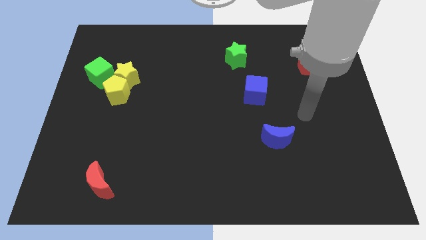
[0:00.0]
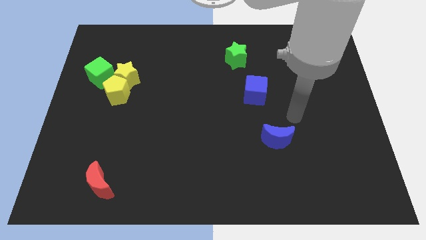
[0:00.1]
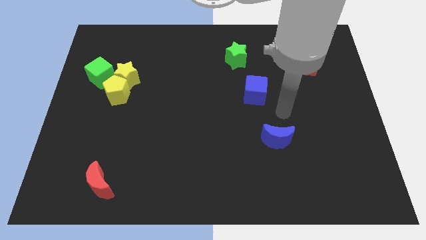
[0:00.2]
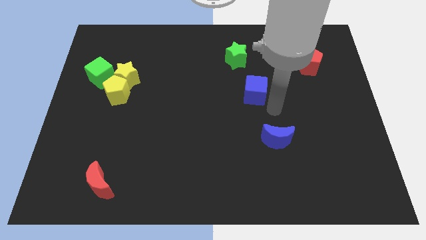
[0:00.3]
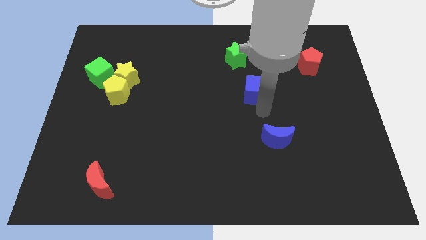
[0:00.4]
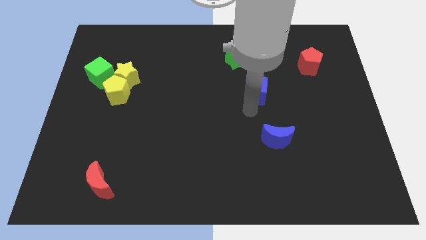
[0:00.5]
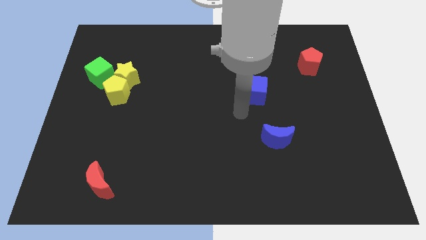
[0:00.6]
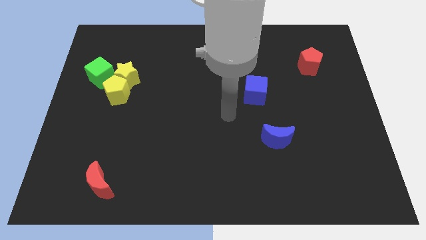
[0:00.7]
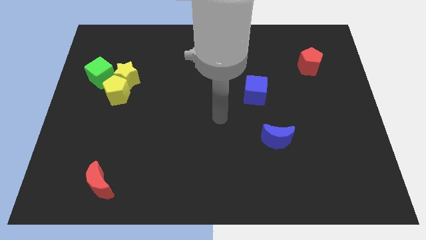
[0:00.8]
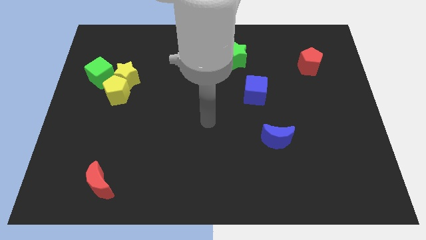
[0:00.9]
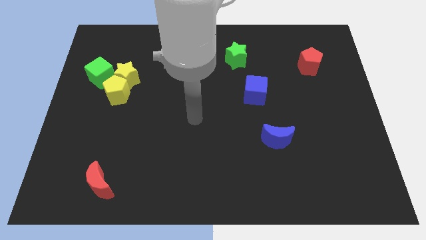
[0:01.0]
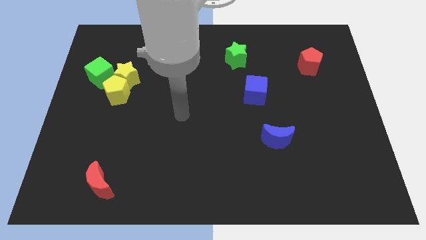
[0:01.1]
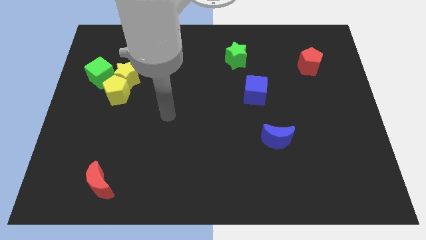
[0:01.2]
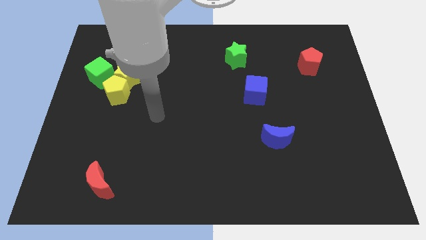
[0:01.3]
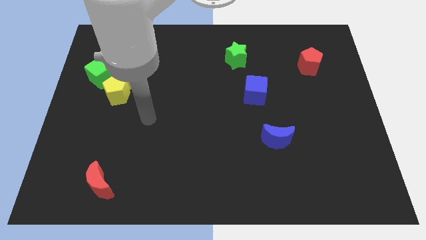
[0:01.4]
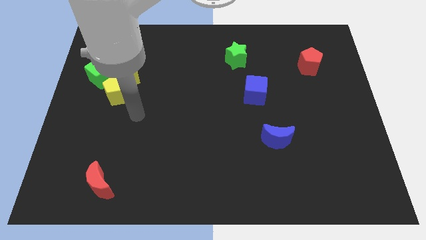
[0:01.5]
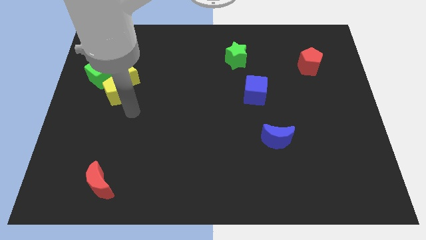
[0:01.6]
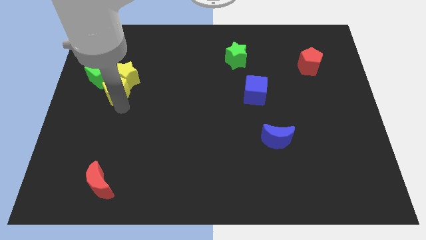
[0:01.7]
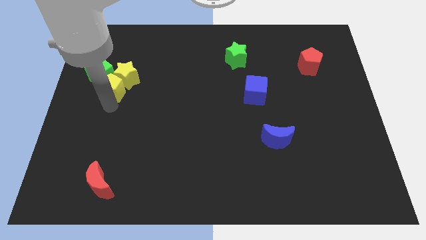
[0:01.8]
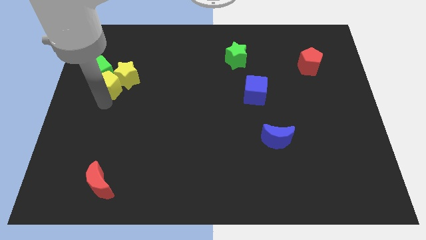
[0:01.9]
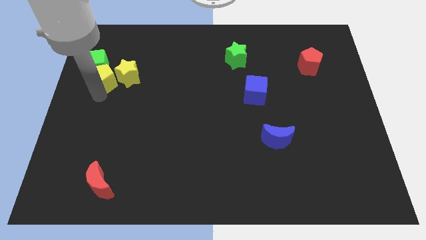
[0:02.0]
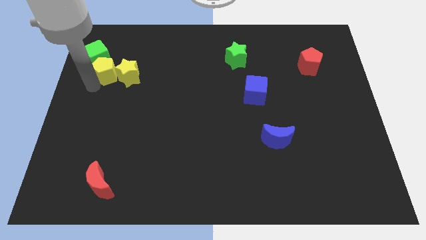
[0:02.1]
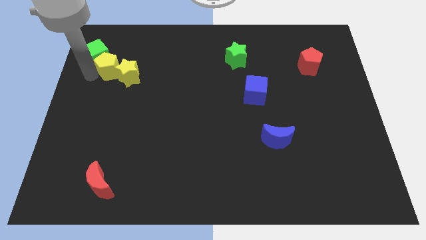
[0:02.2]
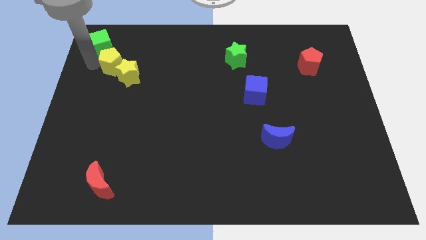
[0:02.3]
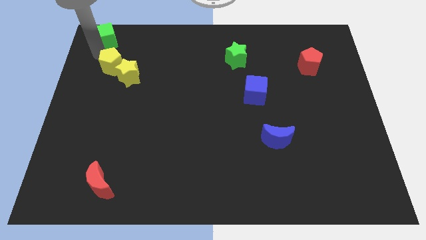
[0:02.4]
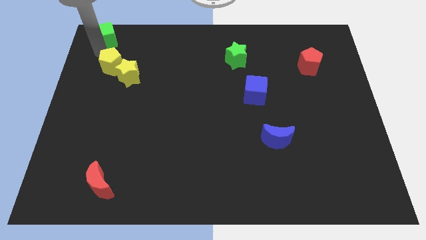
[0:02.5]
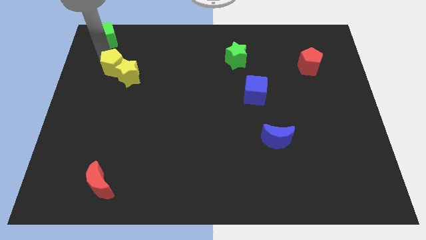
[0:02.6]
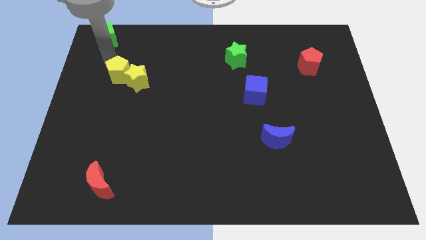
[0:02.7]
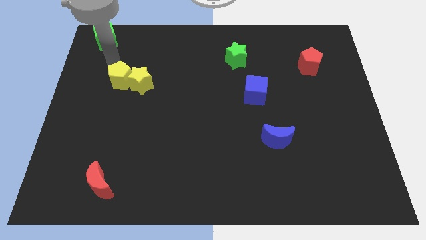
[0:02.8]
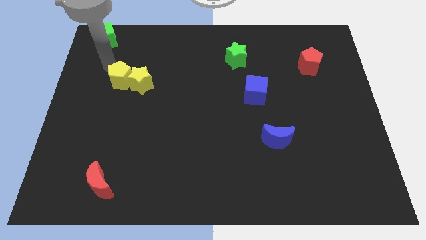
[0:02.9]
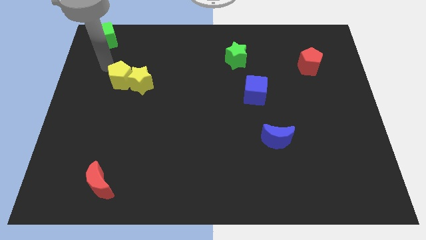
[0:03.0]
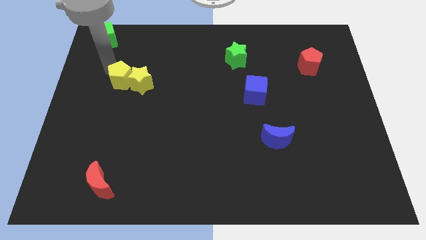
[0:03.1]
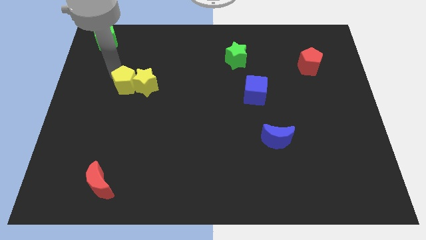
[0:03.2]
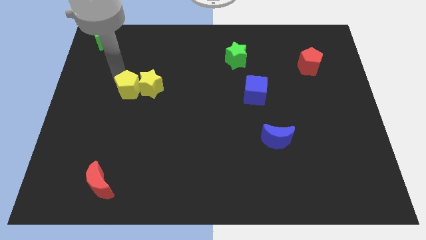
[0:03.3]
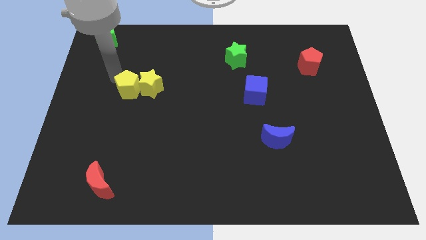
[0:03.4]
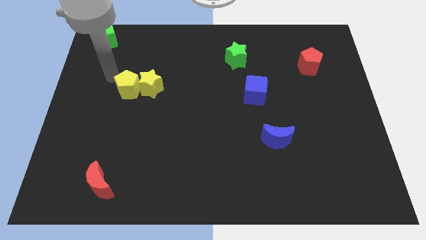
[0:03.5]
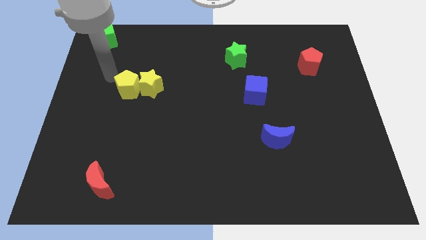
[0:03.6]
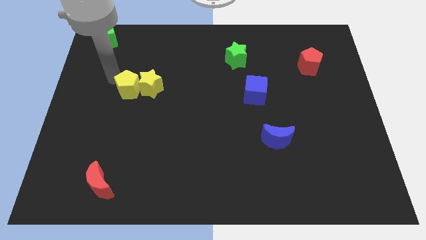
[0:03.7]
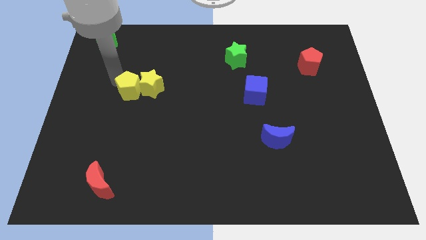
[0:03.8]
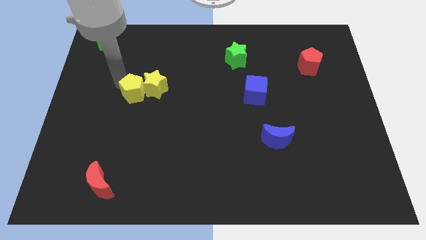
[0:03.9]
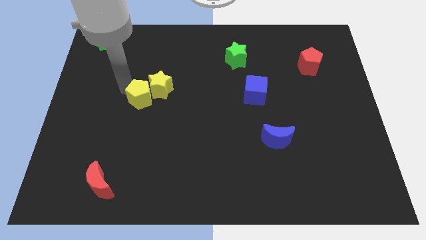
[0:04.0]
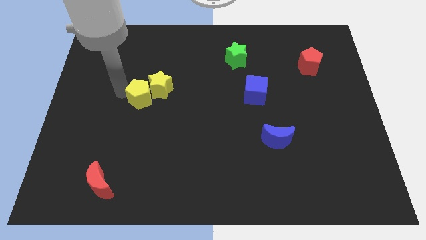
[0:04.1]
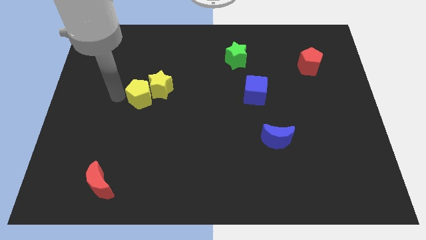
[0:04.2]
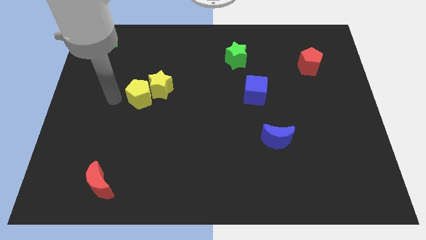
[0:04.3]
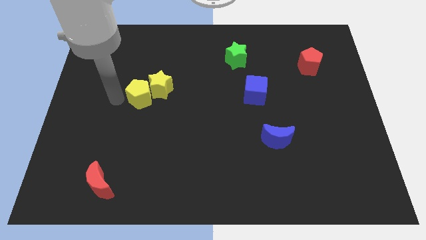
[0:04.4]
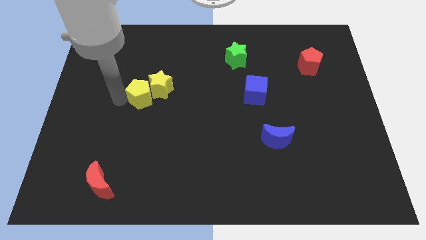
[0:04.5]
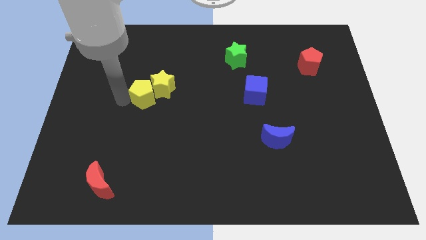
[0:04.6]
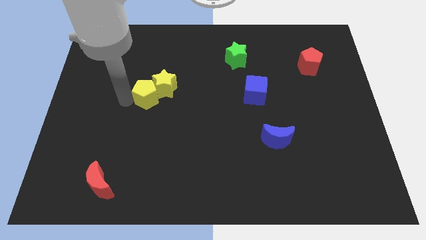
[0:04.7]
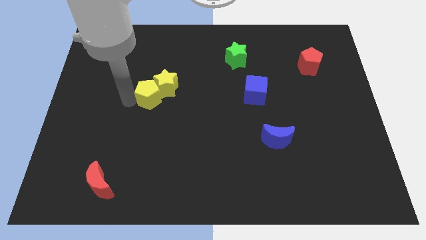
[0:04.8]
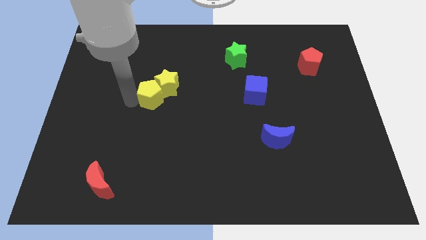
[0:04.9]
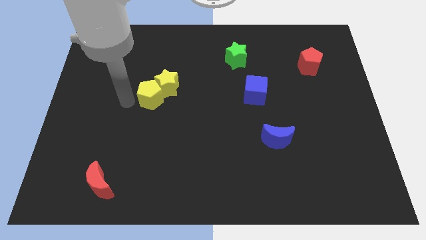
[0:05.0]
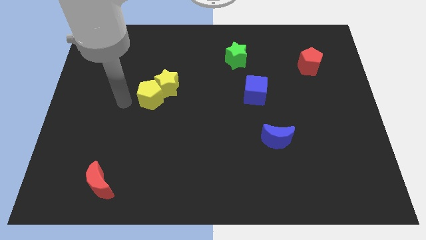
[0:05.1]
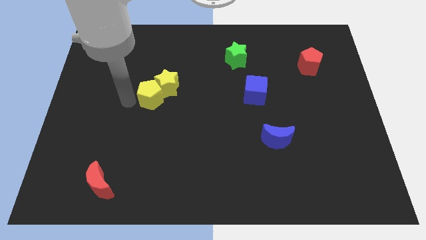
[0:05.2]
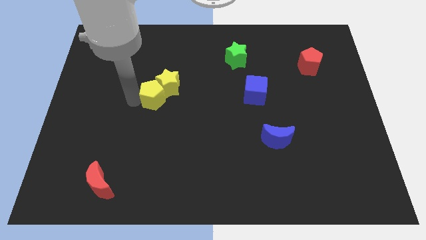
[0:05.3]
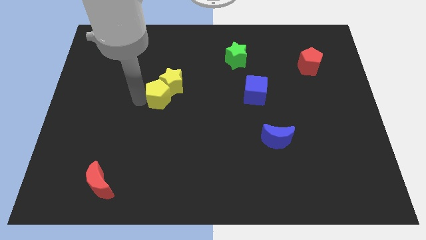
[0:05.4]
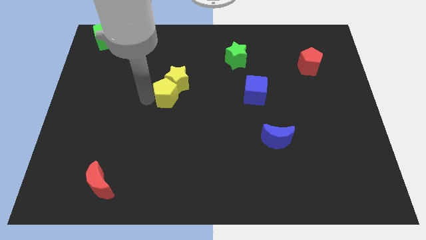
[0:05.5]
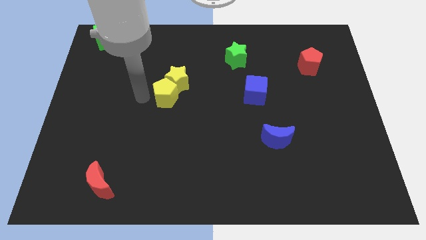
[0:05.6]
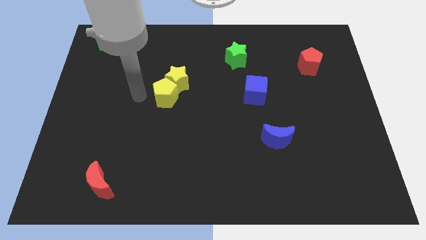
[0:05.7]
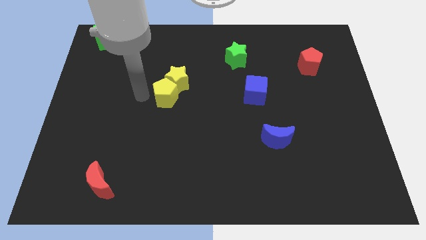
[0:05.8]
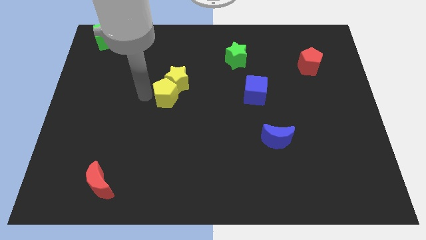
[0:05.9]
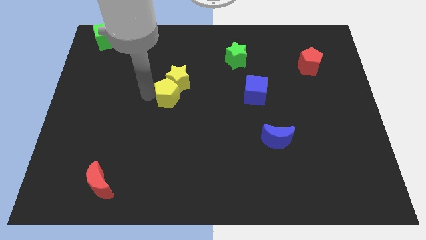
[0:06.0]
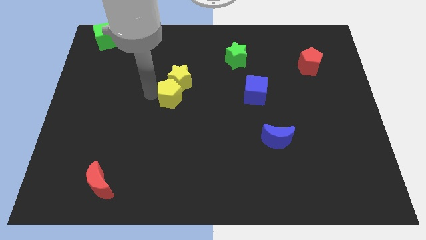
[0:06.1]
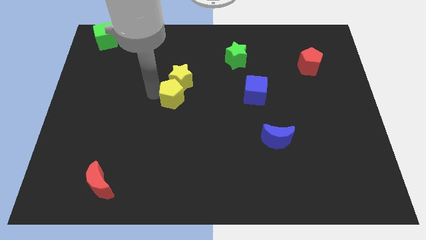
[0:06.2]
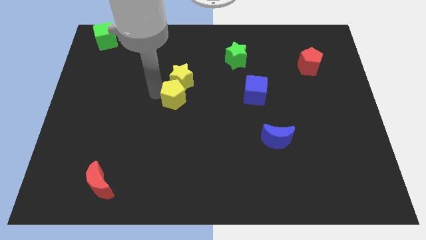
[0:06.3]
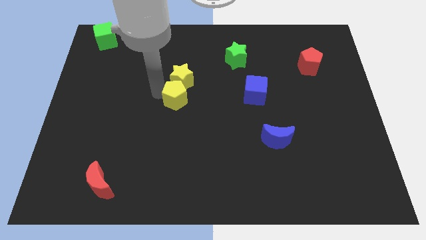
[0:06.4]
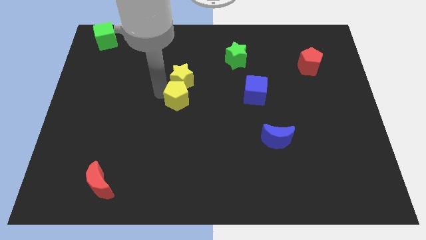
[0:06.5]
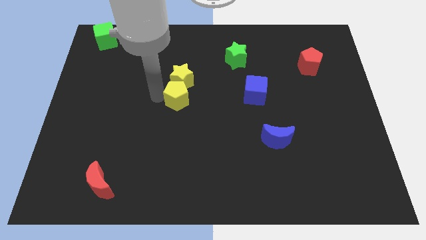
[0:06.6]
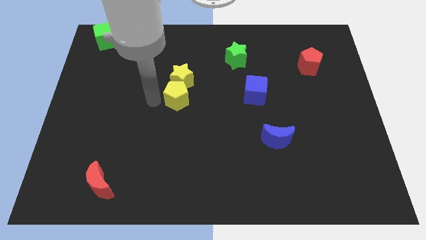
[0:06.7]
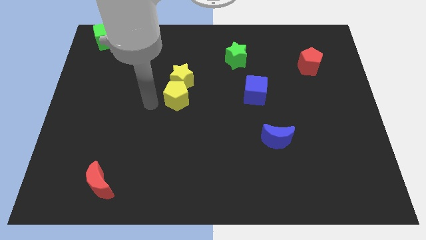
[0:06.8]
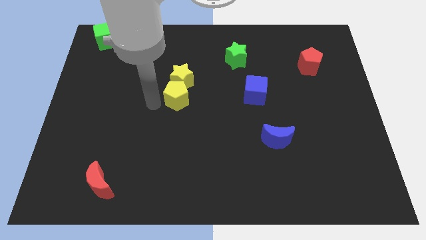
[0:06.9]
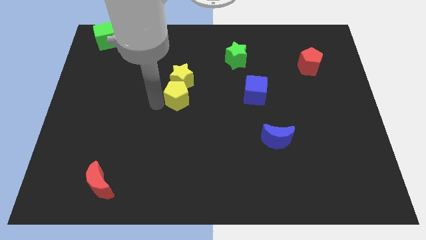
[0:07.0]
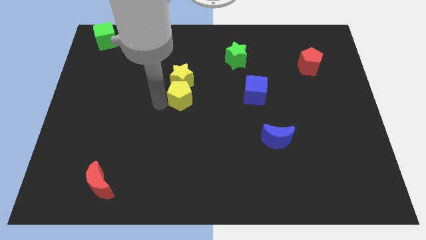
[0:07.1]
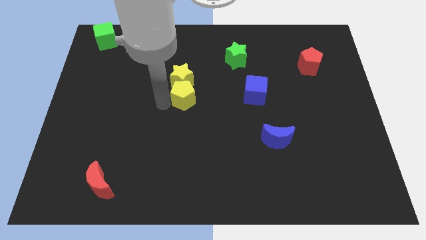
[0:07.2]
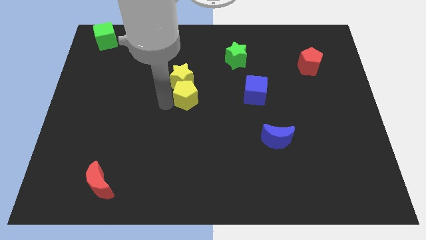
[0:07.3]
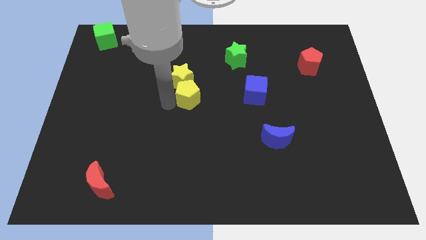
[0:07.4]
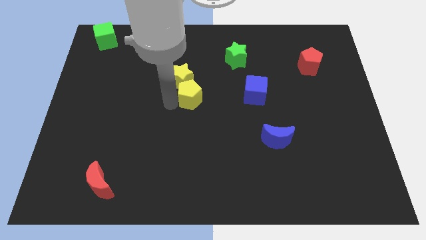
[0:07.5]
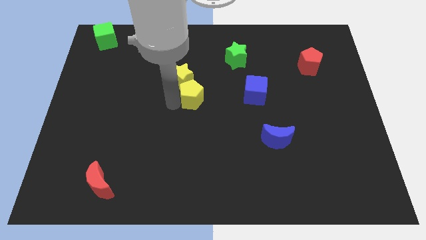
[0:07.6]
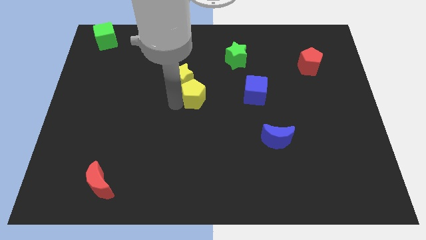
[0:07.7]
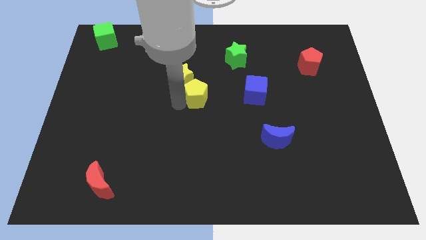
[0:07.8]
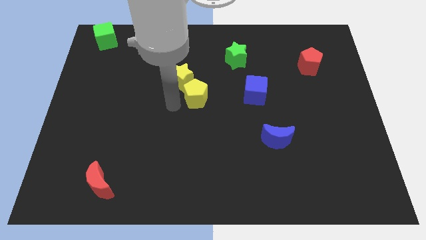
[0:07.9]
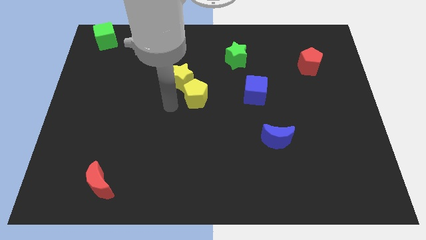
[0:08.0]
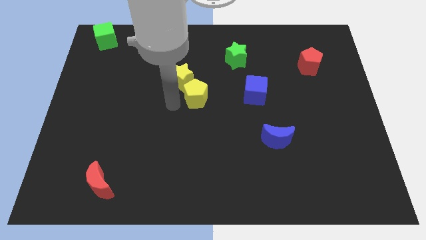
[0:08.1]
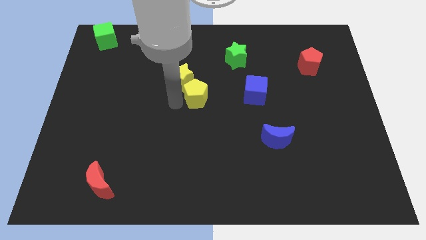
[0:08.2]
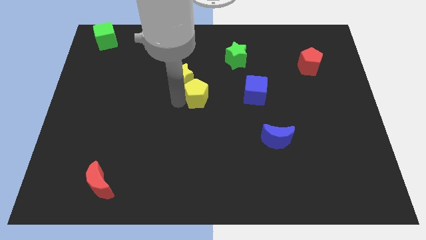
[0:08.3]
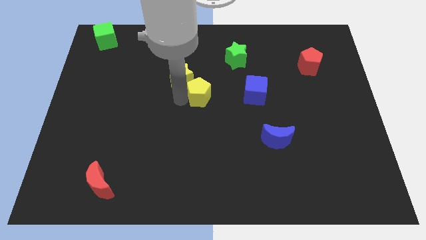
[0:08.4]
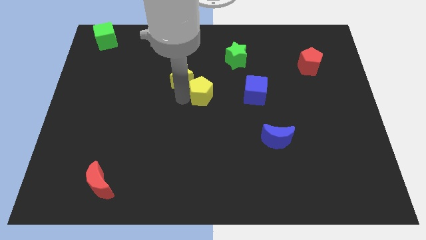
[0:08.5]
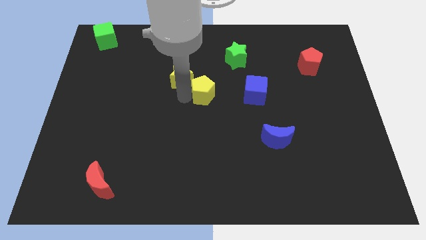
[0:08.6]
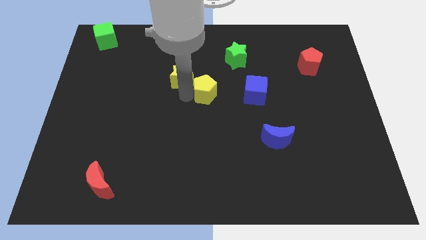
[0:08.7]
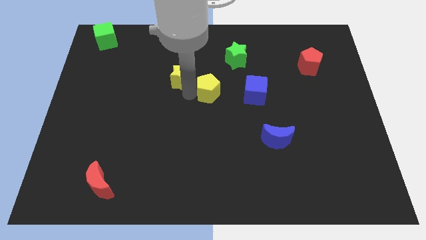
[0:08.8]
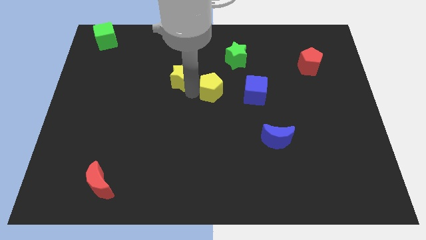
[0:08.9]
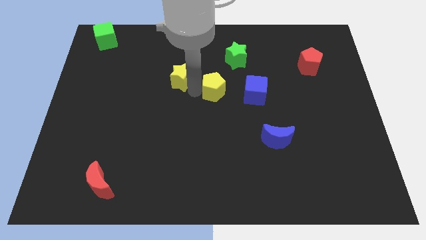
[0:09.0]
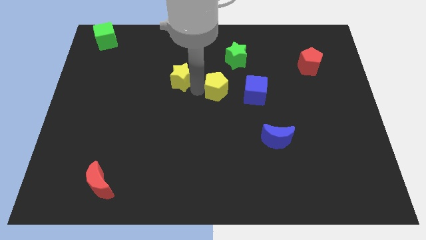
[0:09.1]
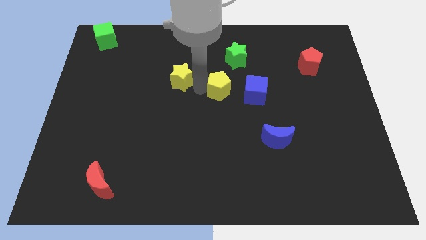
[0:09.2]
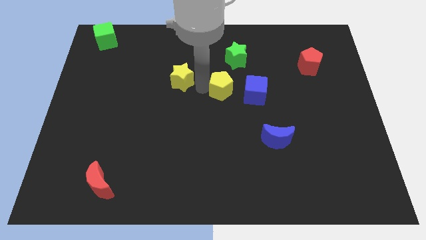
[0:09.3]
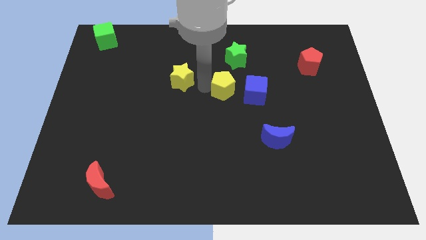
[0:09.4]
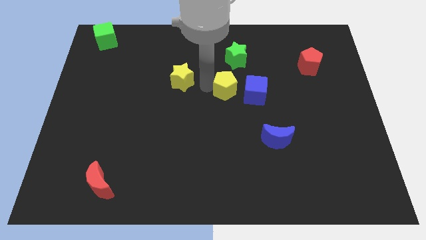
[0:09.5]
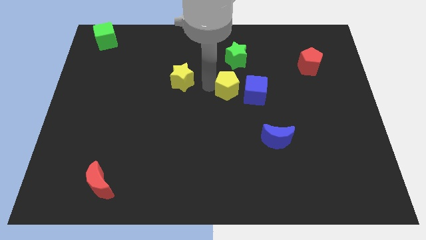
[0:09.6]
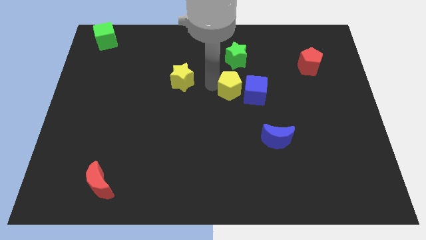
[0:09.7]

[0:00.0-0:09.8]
move the yellow pentagon next to the blue cube
